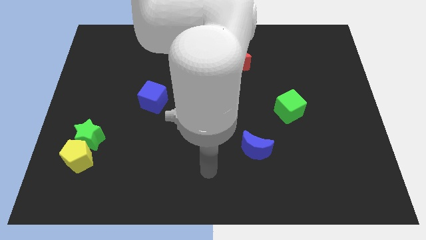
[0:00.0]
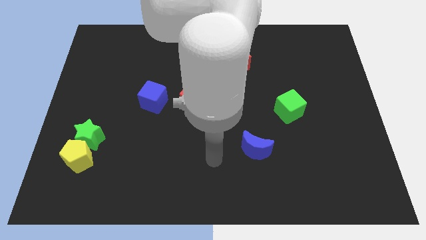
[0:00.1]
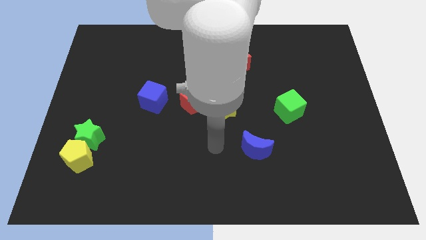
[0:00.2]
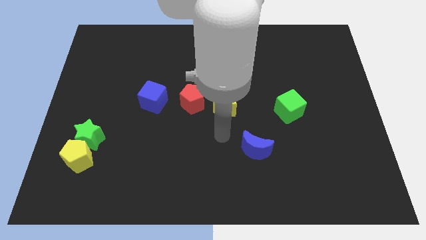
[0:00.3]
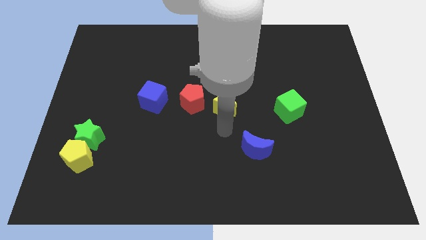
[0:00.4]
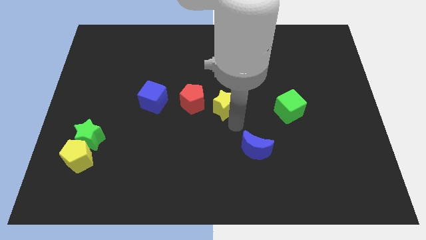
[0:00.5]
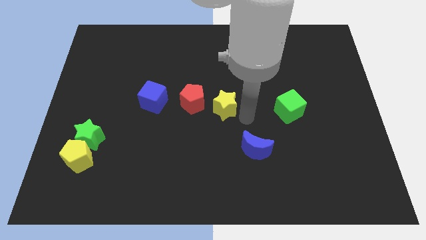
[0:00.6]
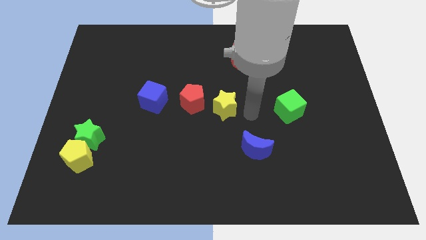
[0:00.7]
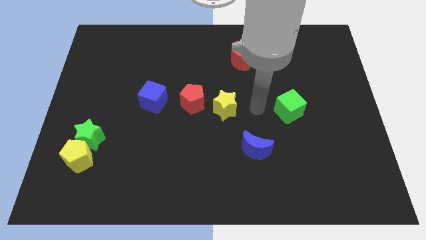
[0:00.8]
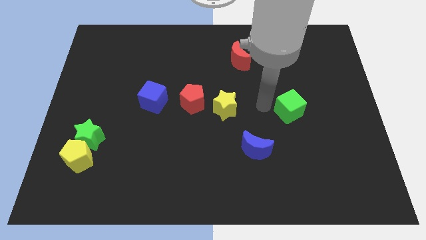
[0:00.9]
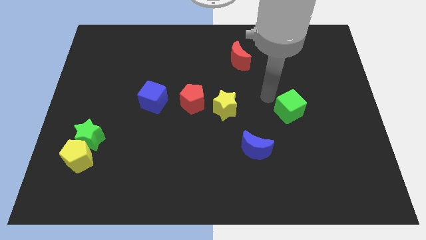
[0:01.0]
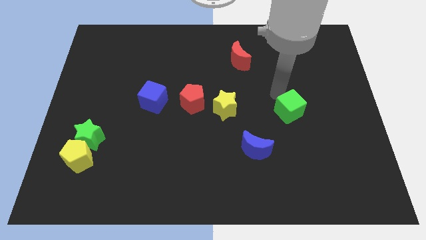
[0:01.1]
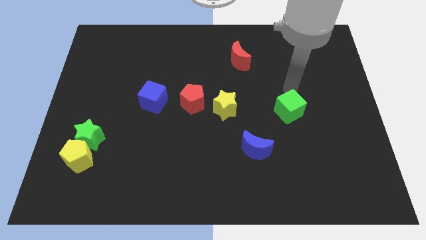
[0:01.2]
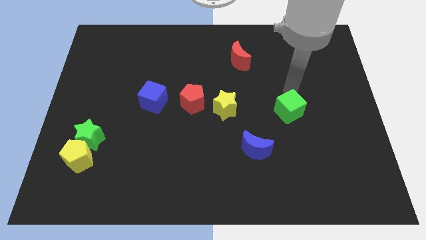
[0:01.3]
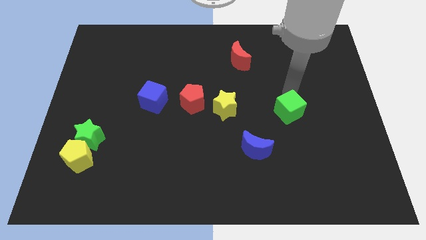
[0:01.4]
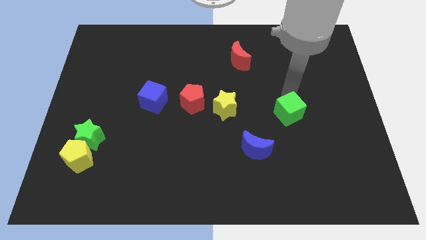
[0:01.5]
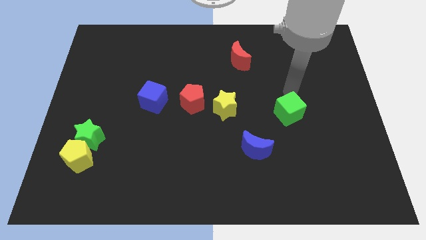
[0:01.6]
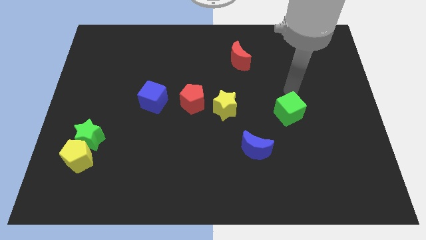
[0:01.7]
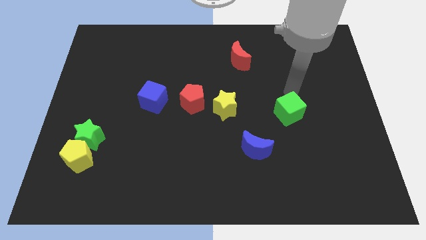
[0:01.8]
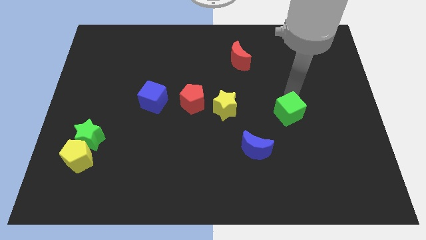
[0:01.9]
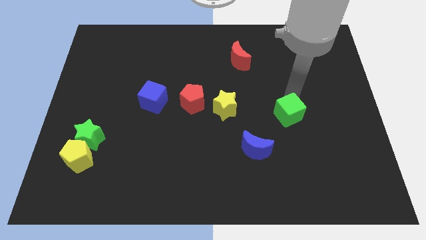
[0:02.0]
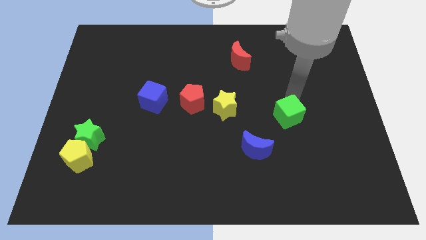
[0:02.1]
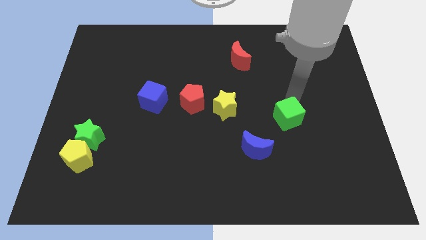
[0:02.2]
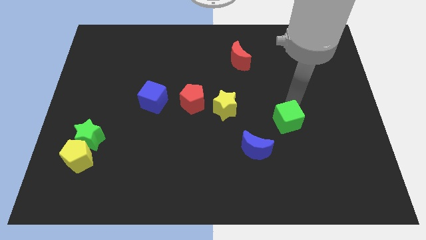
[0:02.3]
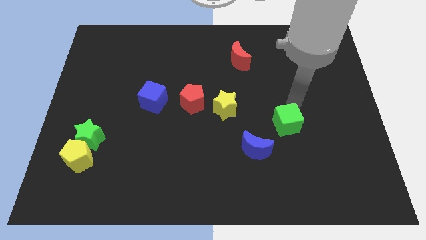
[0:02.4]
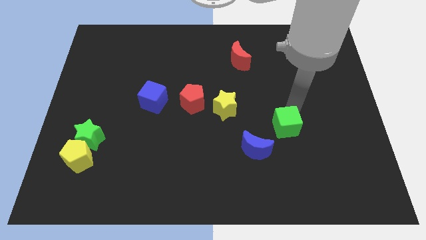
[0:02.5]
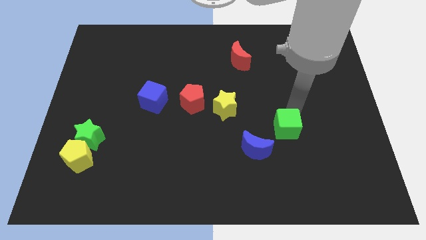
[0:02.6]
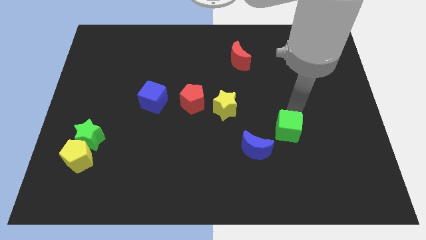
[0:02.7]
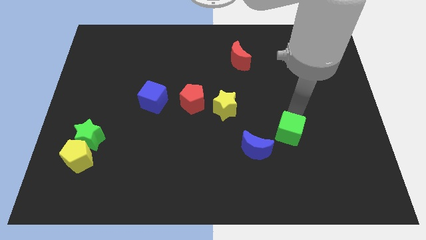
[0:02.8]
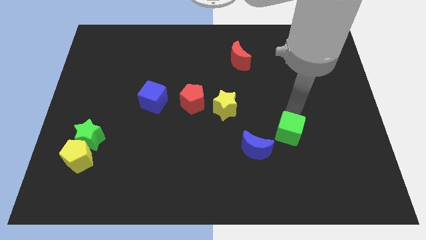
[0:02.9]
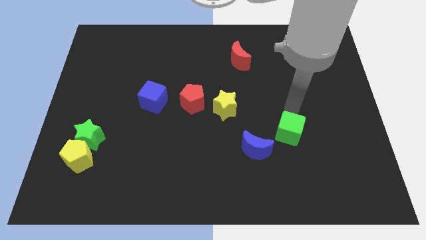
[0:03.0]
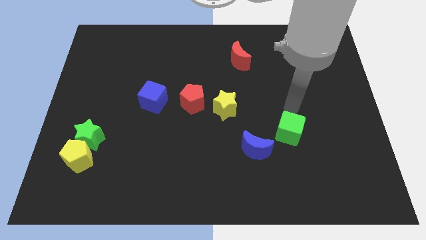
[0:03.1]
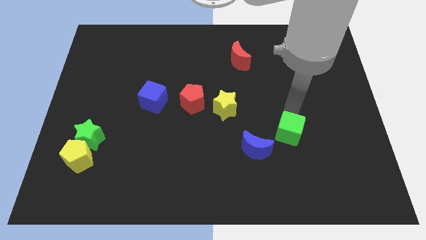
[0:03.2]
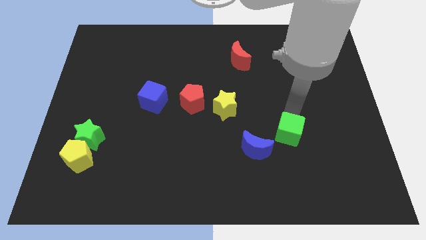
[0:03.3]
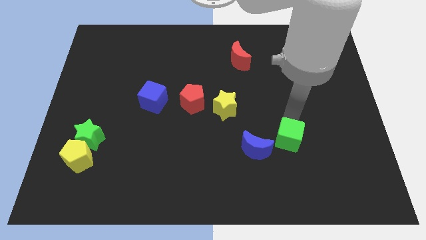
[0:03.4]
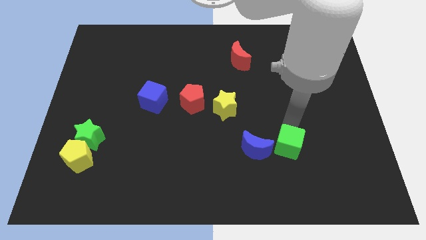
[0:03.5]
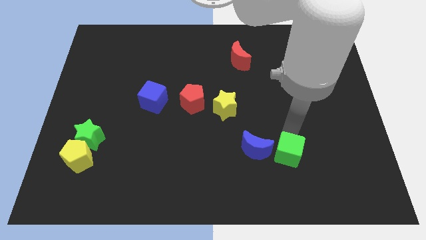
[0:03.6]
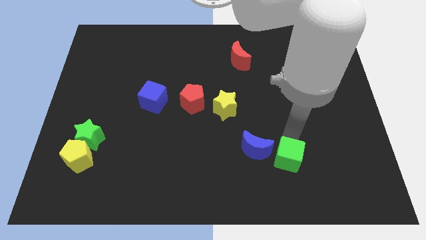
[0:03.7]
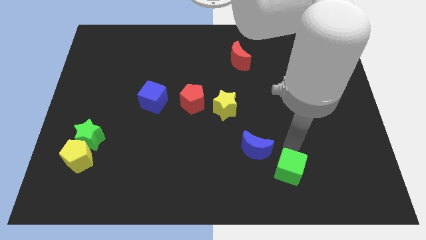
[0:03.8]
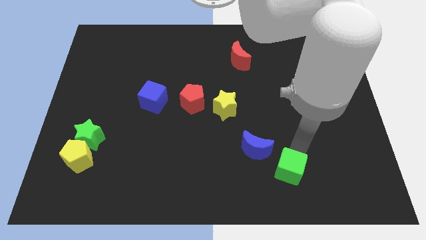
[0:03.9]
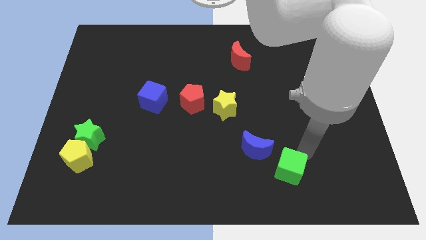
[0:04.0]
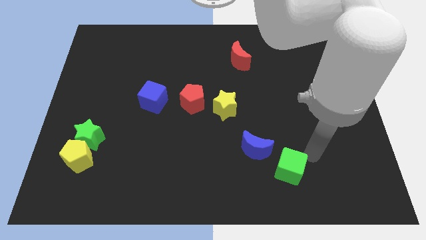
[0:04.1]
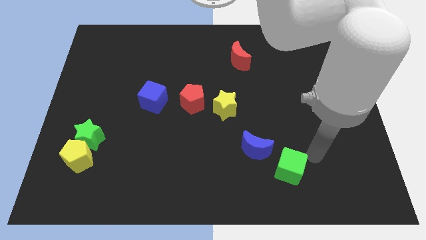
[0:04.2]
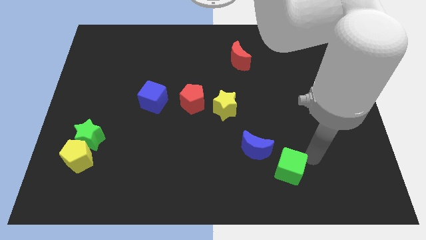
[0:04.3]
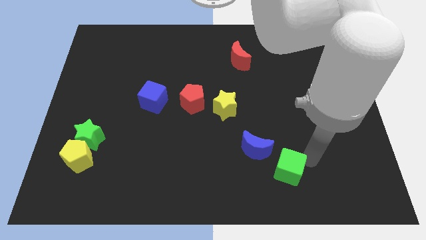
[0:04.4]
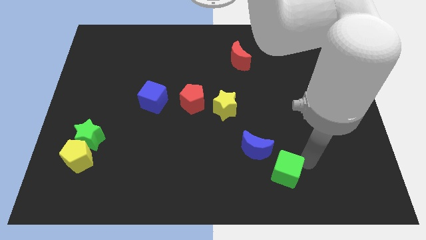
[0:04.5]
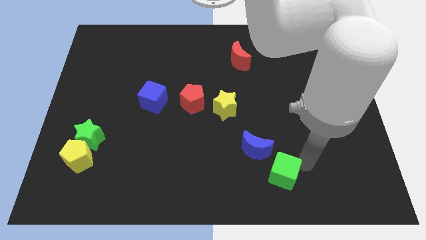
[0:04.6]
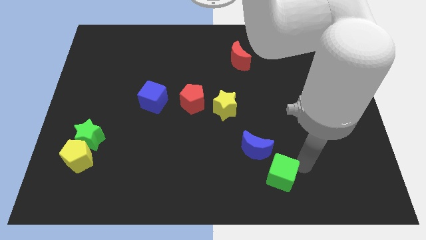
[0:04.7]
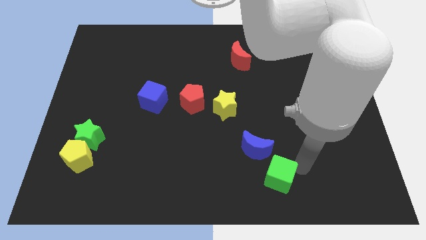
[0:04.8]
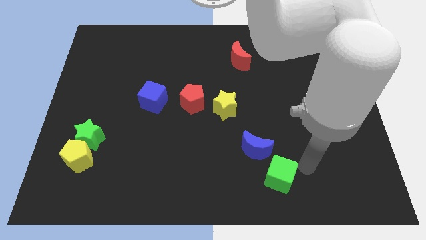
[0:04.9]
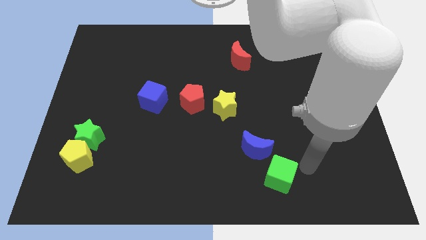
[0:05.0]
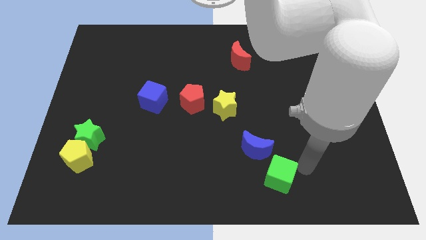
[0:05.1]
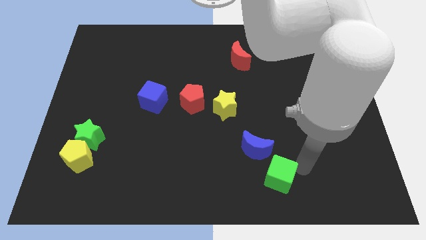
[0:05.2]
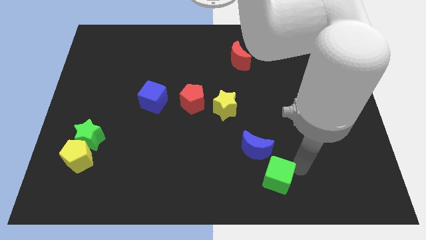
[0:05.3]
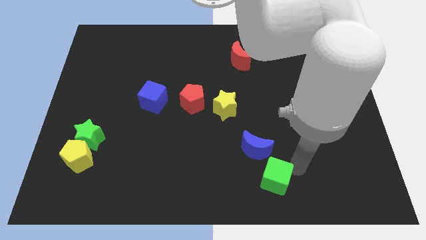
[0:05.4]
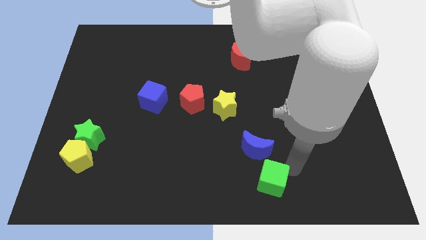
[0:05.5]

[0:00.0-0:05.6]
push the green cube to the bottom side
